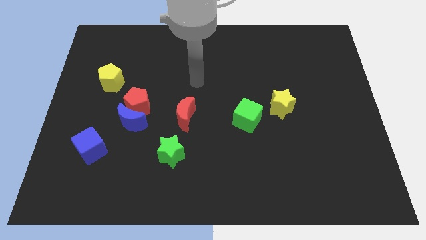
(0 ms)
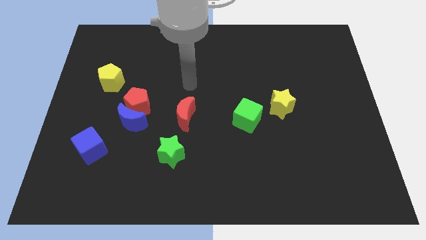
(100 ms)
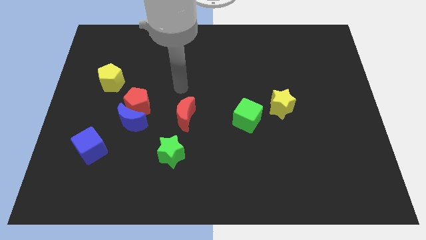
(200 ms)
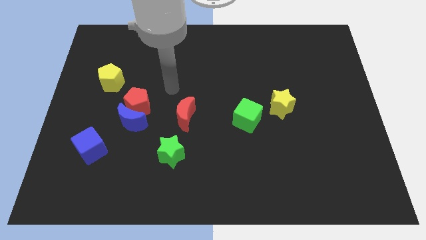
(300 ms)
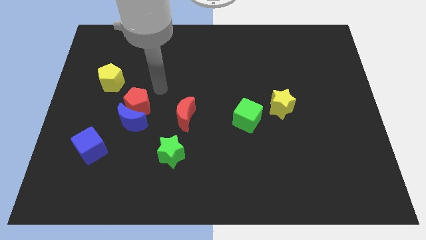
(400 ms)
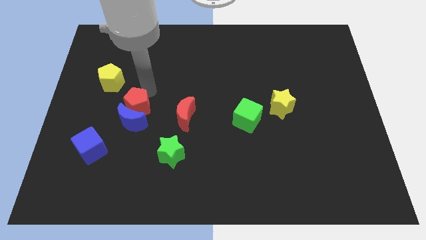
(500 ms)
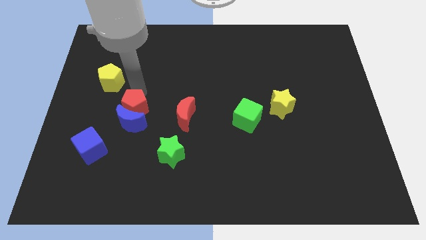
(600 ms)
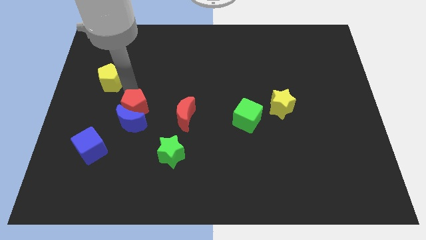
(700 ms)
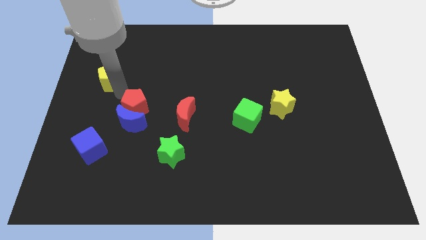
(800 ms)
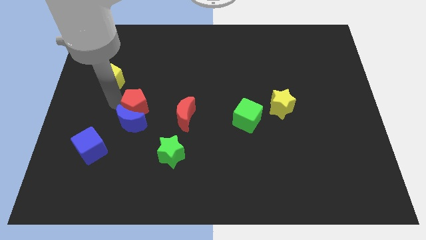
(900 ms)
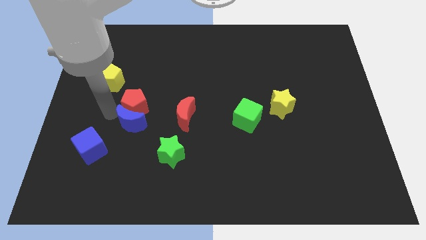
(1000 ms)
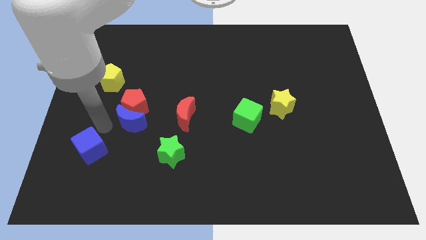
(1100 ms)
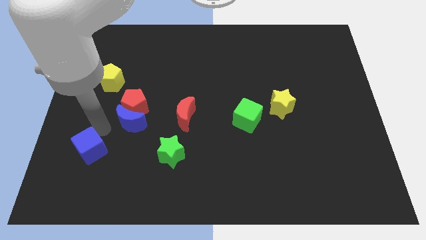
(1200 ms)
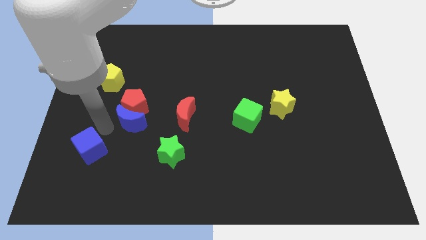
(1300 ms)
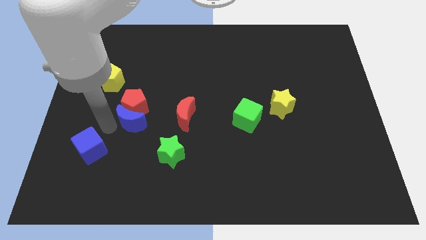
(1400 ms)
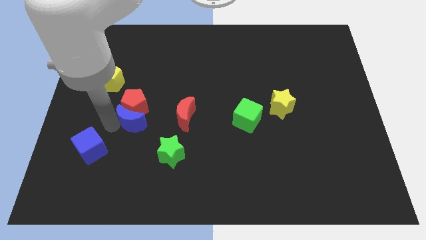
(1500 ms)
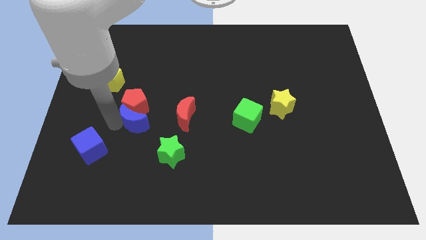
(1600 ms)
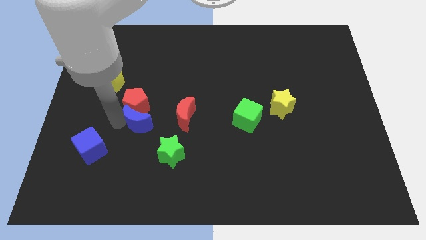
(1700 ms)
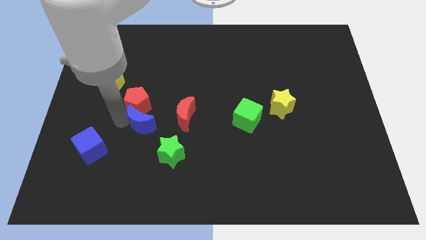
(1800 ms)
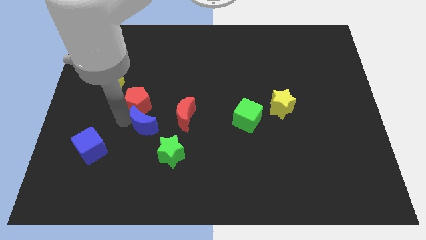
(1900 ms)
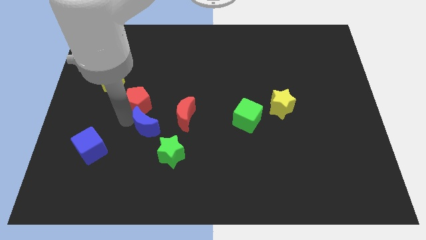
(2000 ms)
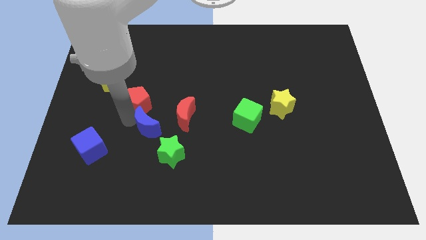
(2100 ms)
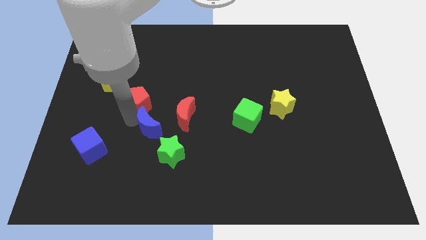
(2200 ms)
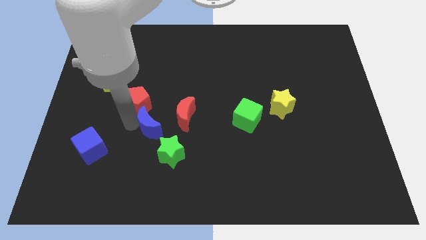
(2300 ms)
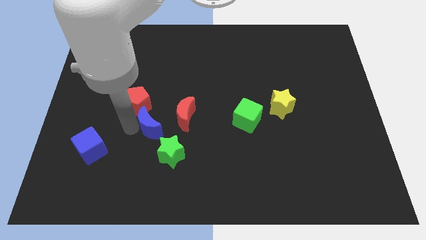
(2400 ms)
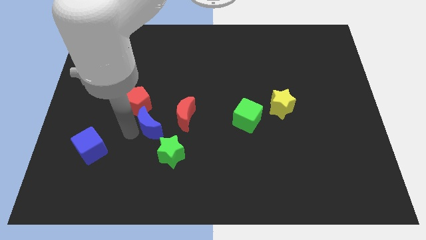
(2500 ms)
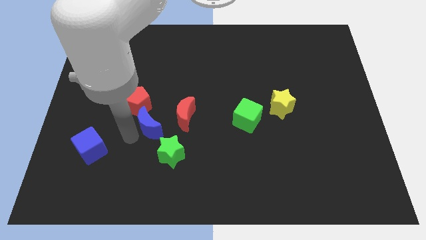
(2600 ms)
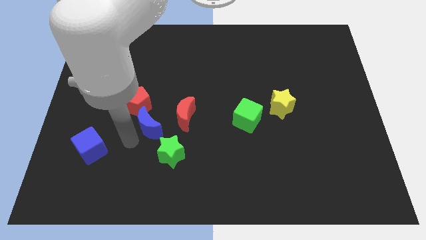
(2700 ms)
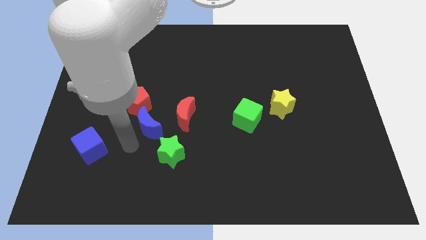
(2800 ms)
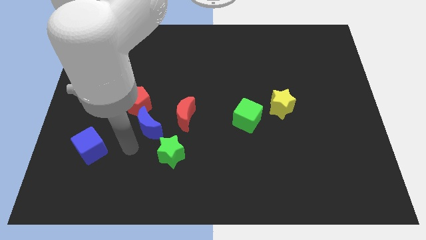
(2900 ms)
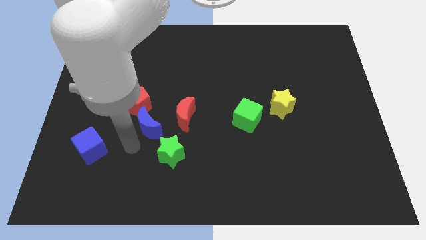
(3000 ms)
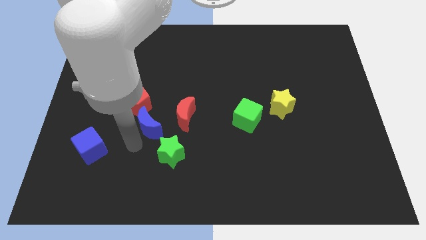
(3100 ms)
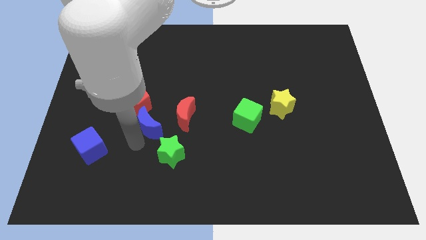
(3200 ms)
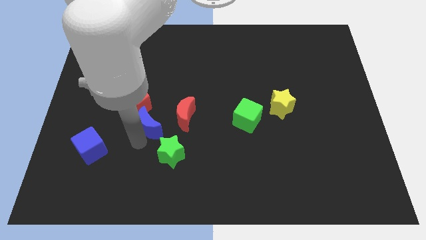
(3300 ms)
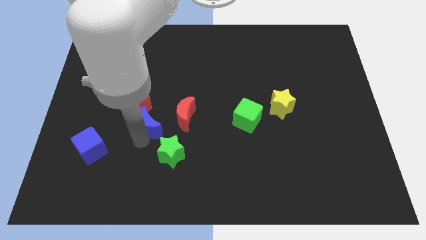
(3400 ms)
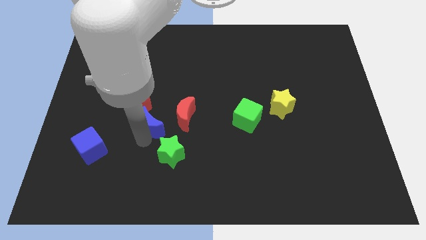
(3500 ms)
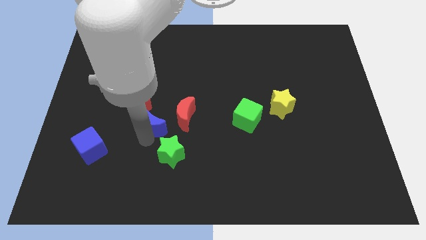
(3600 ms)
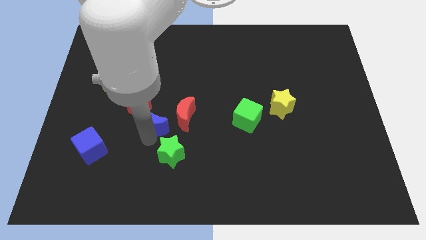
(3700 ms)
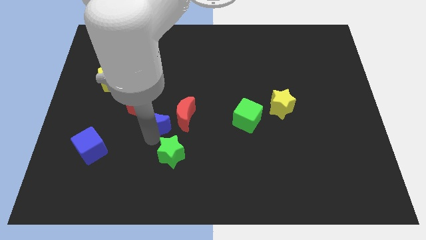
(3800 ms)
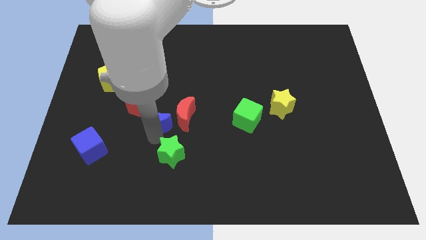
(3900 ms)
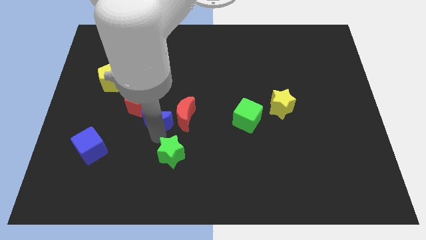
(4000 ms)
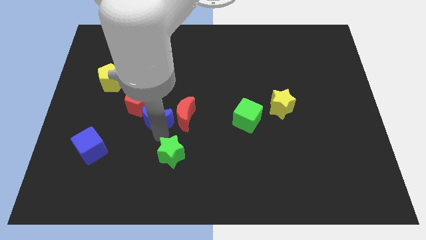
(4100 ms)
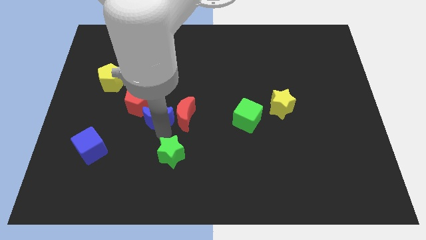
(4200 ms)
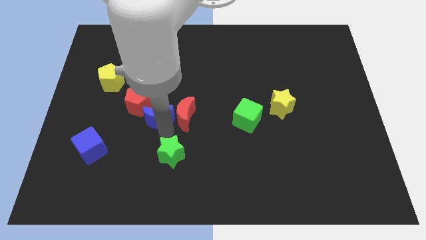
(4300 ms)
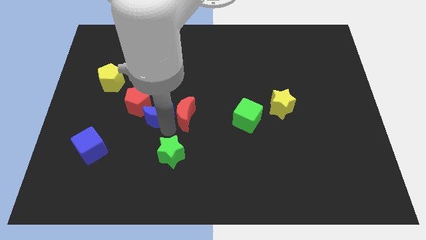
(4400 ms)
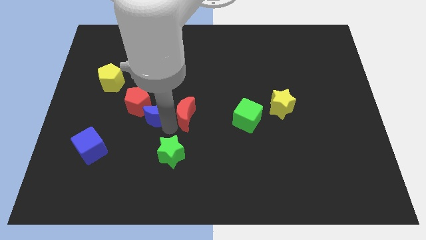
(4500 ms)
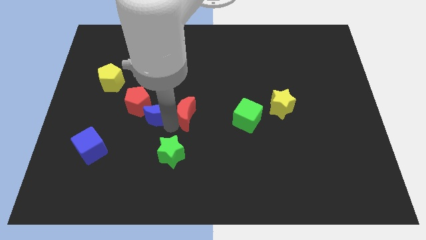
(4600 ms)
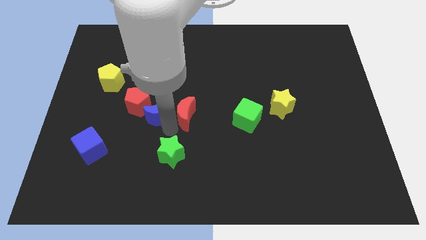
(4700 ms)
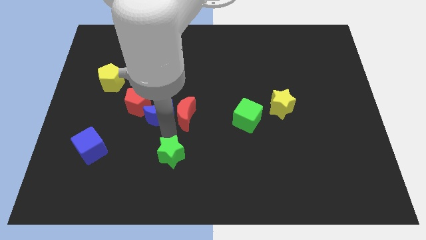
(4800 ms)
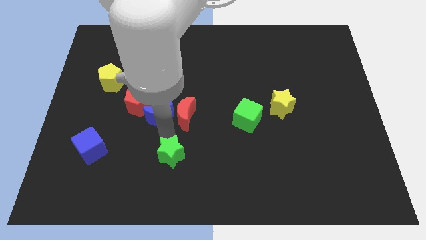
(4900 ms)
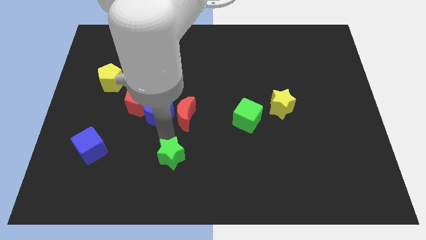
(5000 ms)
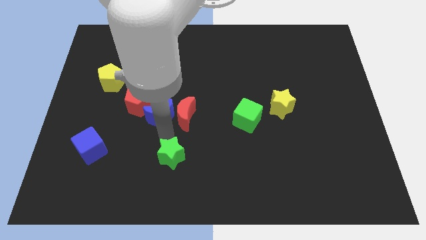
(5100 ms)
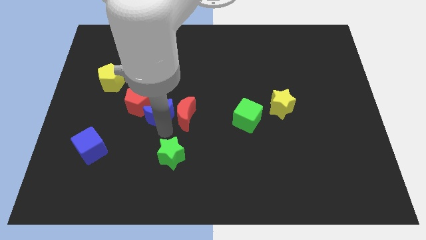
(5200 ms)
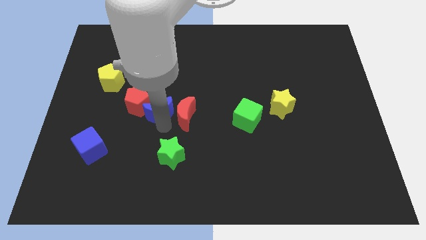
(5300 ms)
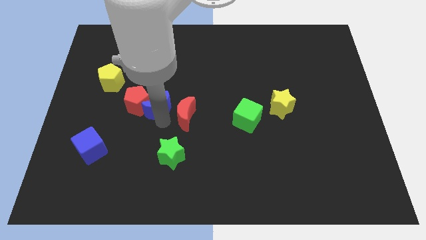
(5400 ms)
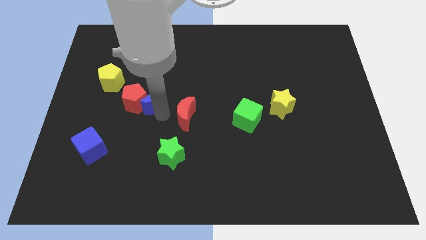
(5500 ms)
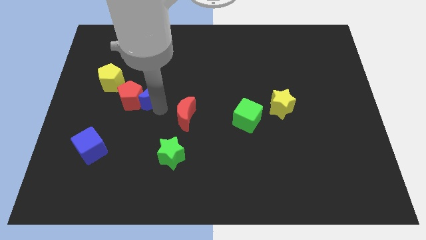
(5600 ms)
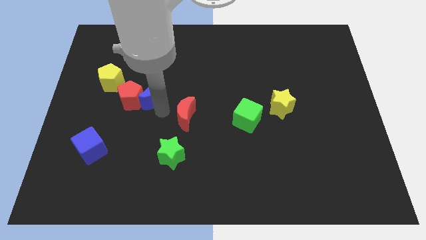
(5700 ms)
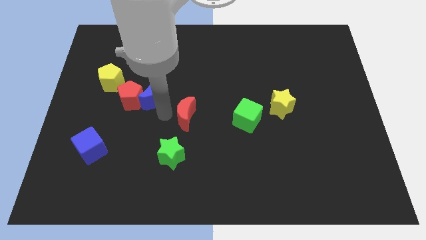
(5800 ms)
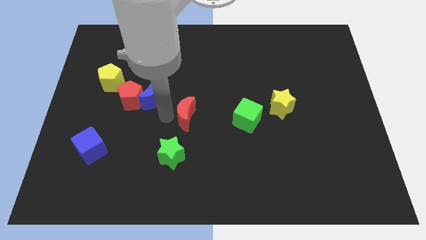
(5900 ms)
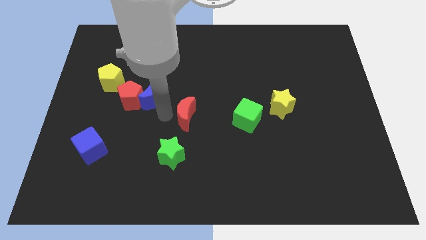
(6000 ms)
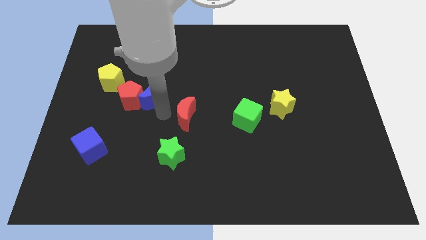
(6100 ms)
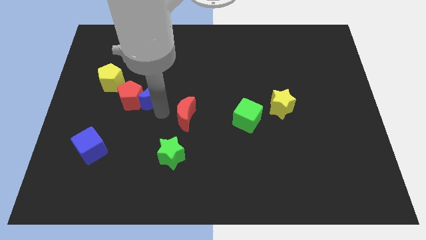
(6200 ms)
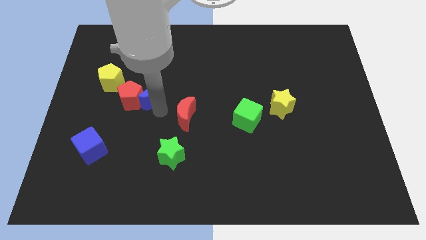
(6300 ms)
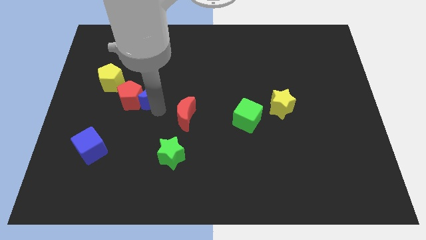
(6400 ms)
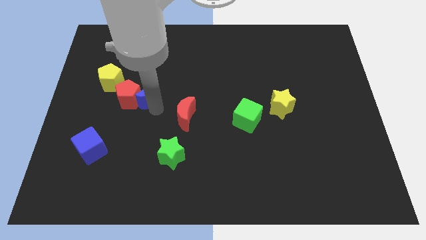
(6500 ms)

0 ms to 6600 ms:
move the blue moon upwards a bit

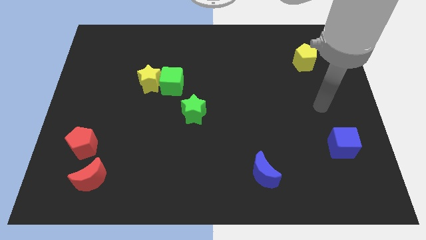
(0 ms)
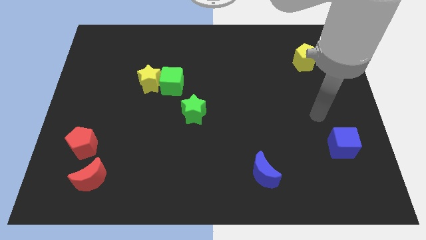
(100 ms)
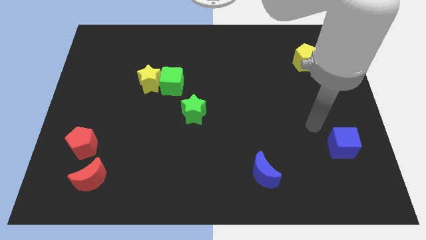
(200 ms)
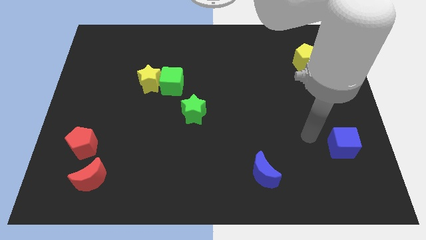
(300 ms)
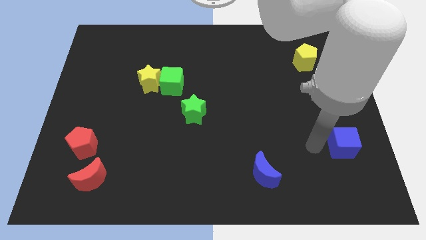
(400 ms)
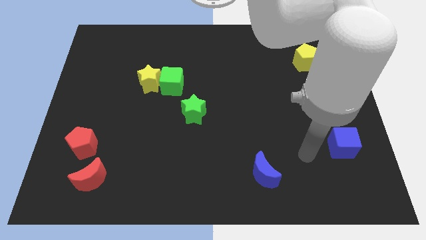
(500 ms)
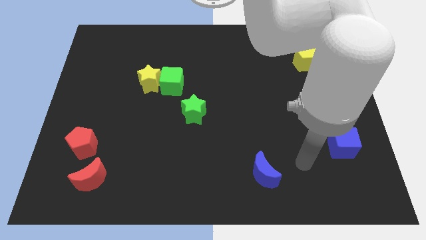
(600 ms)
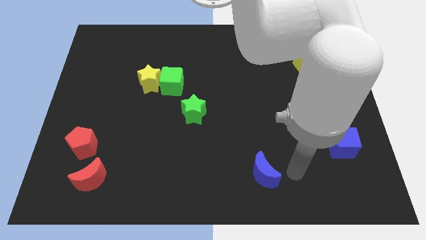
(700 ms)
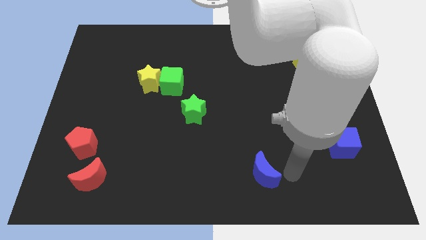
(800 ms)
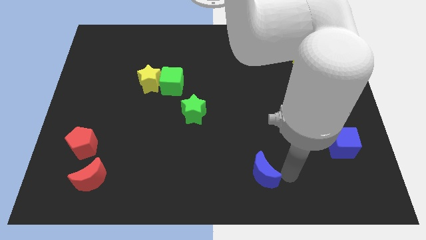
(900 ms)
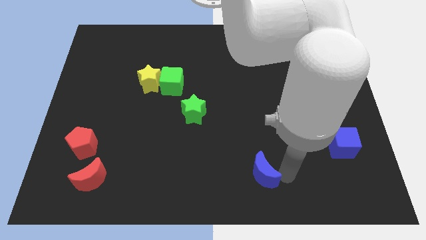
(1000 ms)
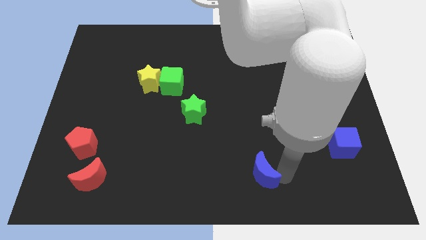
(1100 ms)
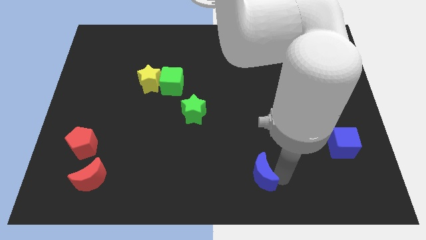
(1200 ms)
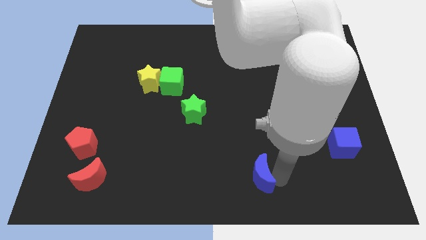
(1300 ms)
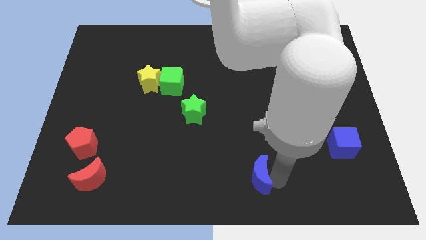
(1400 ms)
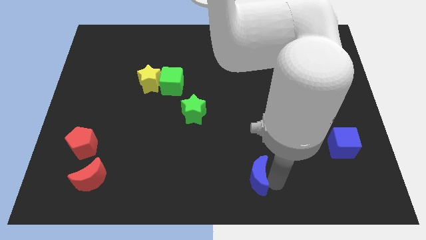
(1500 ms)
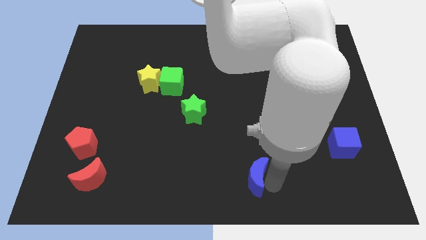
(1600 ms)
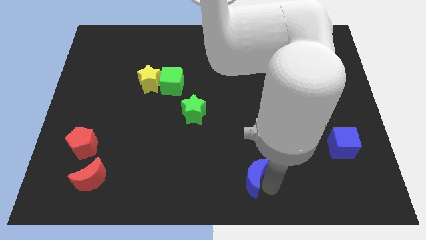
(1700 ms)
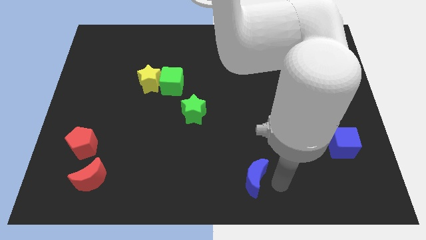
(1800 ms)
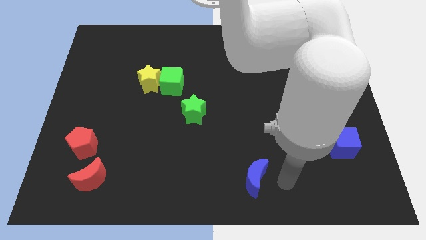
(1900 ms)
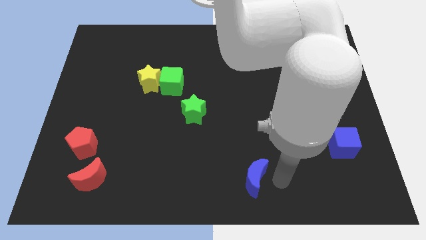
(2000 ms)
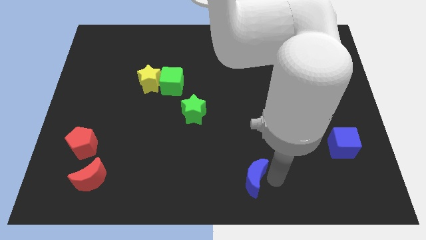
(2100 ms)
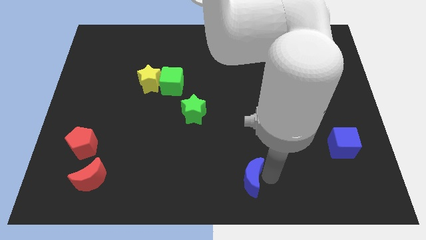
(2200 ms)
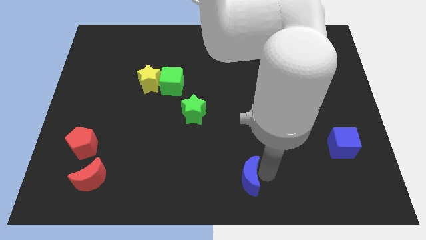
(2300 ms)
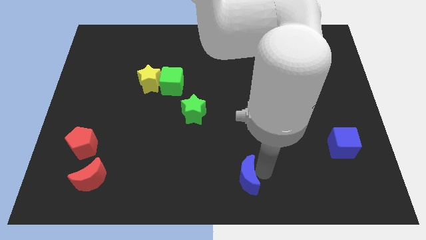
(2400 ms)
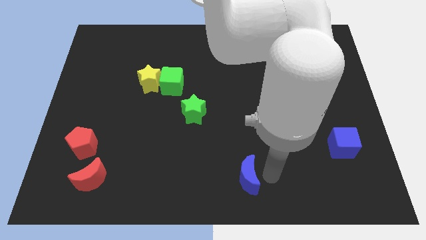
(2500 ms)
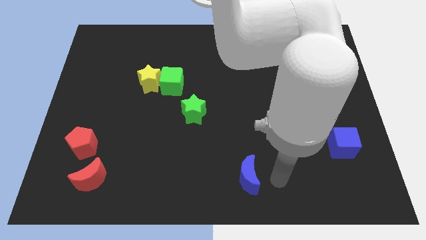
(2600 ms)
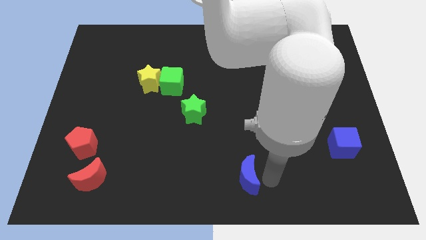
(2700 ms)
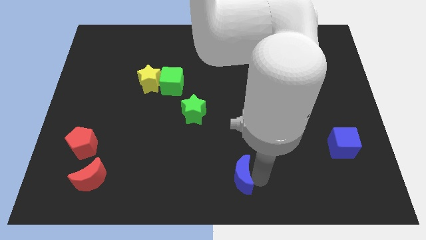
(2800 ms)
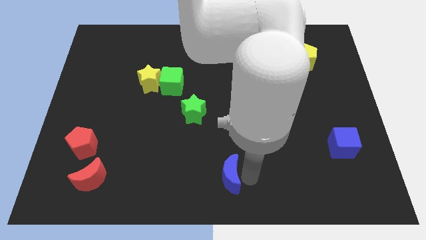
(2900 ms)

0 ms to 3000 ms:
move the blue moon a little left
